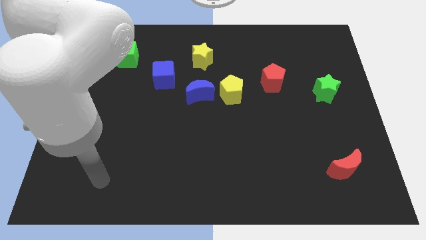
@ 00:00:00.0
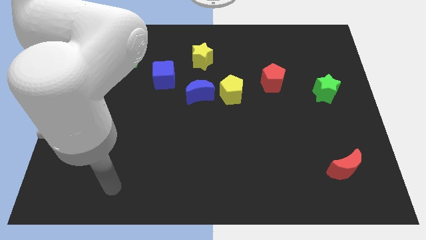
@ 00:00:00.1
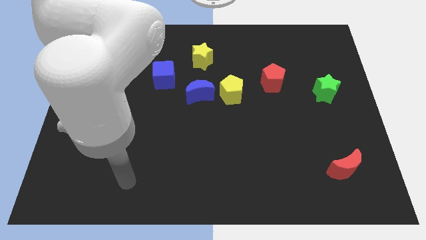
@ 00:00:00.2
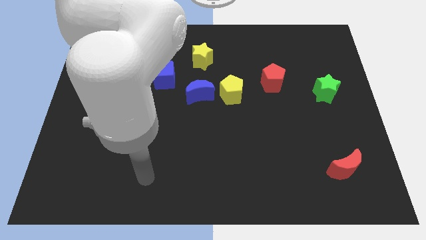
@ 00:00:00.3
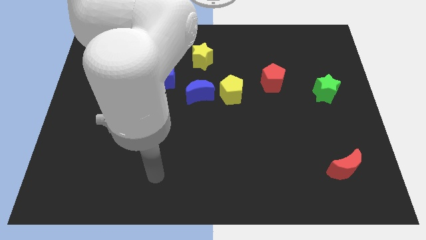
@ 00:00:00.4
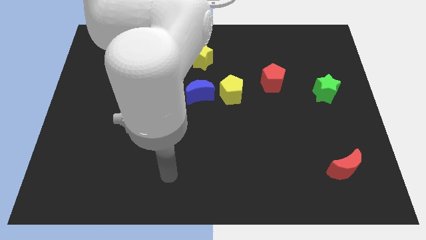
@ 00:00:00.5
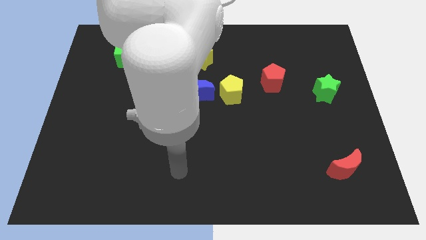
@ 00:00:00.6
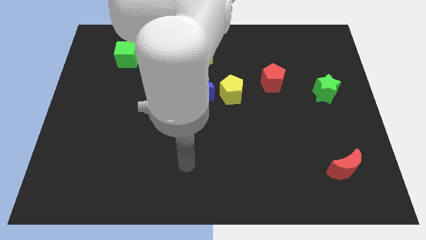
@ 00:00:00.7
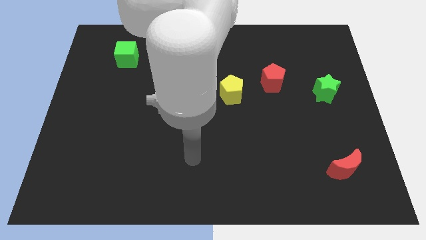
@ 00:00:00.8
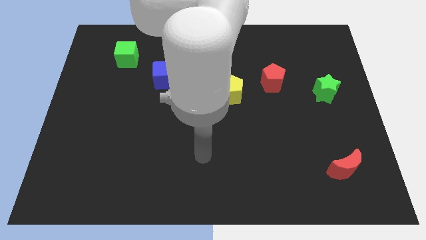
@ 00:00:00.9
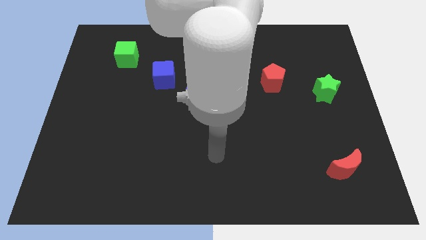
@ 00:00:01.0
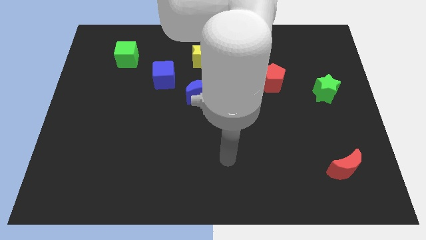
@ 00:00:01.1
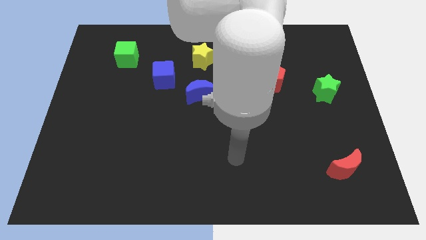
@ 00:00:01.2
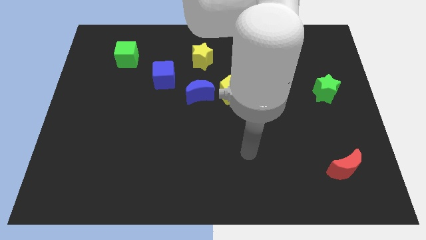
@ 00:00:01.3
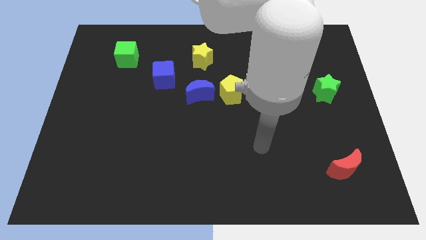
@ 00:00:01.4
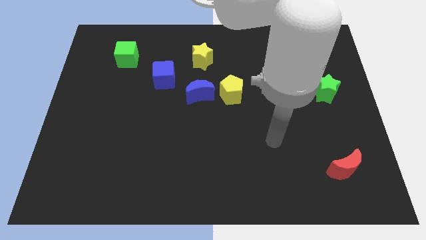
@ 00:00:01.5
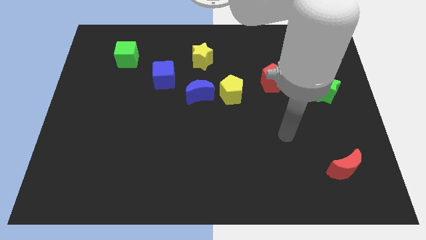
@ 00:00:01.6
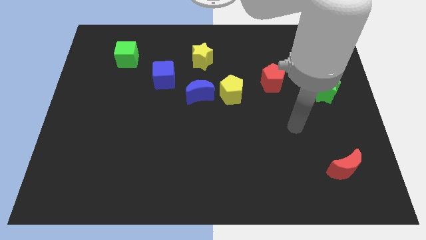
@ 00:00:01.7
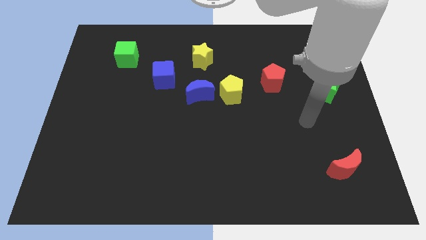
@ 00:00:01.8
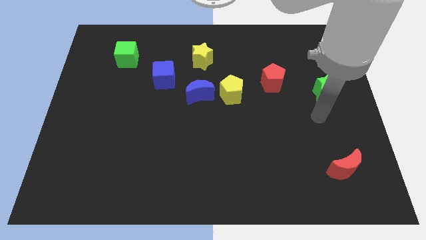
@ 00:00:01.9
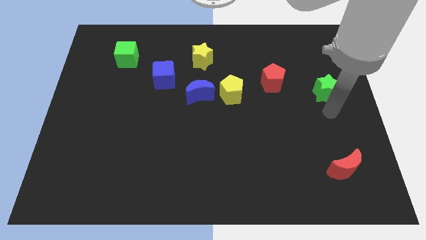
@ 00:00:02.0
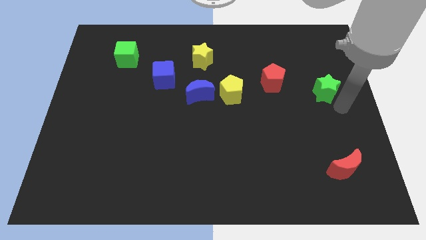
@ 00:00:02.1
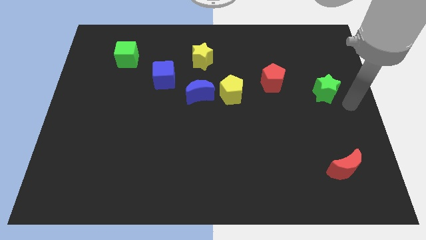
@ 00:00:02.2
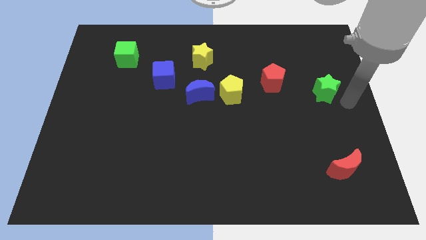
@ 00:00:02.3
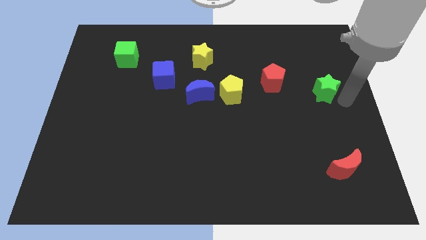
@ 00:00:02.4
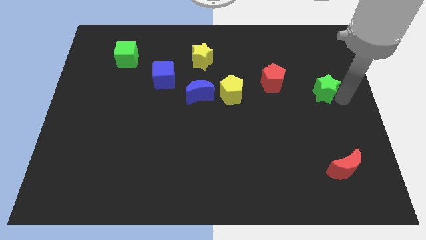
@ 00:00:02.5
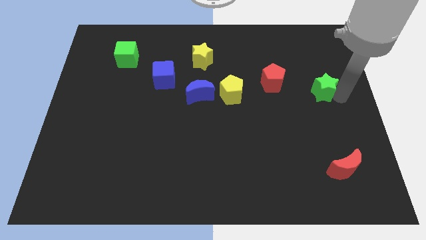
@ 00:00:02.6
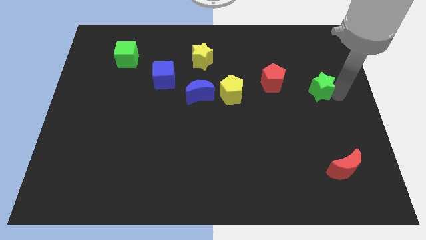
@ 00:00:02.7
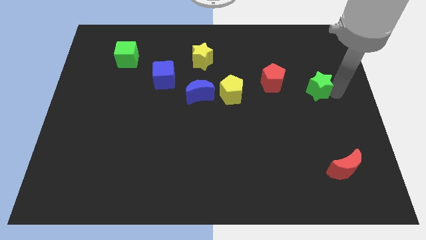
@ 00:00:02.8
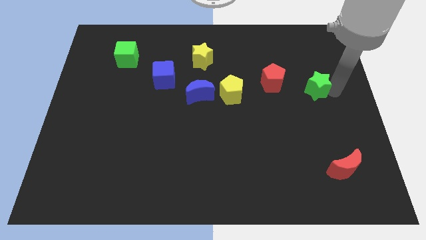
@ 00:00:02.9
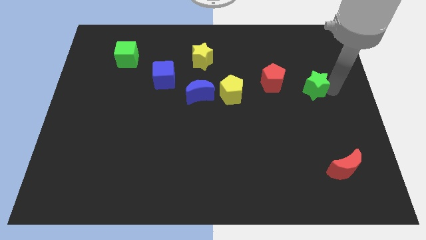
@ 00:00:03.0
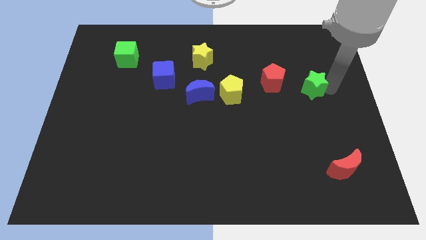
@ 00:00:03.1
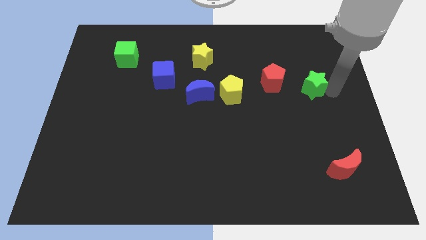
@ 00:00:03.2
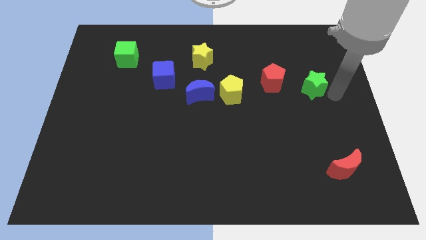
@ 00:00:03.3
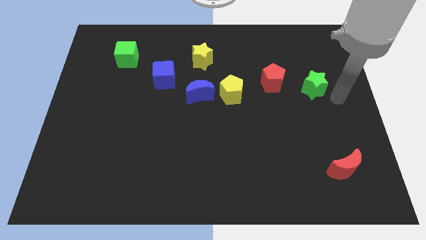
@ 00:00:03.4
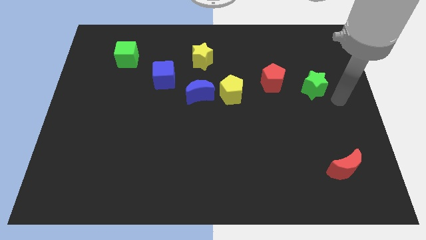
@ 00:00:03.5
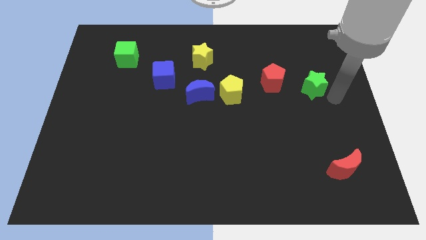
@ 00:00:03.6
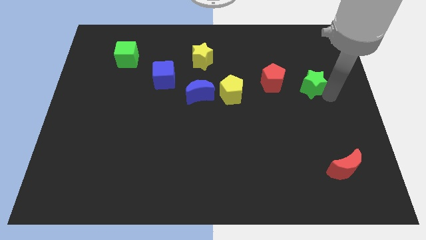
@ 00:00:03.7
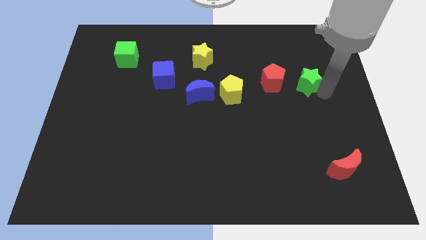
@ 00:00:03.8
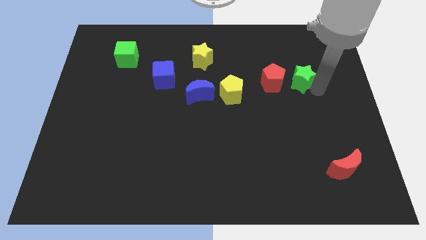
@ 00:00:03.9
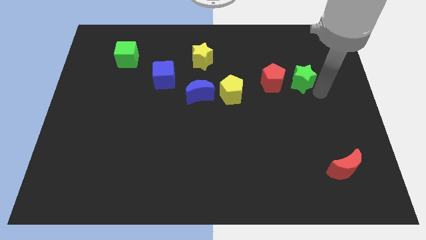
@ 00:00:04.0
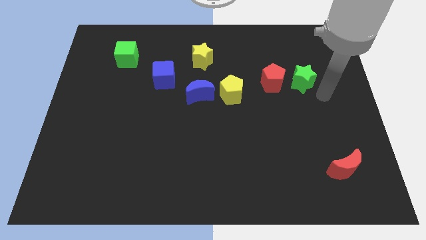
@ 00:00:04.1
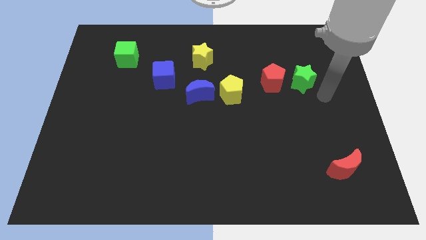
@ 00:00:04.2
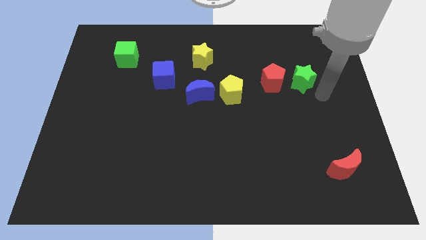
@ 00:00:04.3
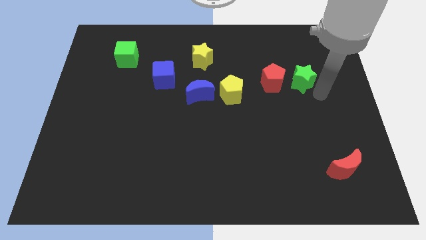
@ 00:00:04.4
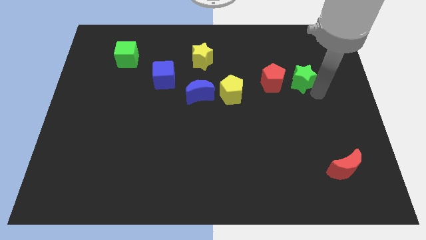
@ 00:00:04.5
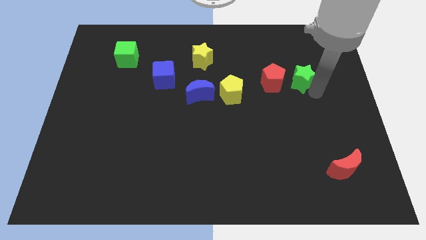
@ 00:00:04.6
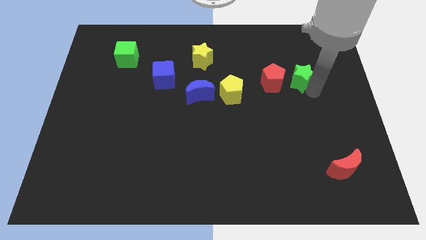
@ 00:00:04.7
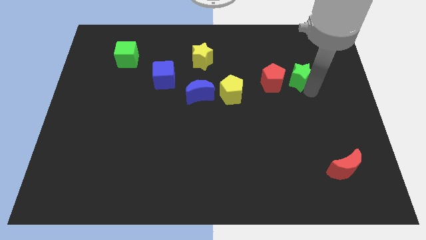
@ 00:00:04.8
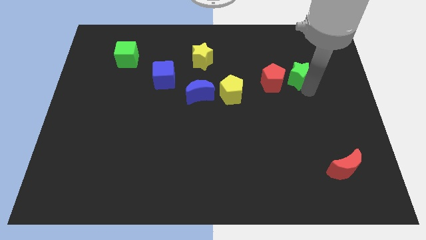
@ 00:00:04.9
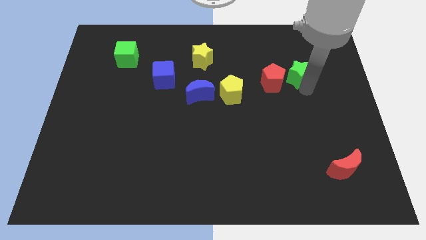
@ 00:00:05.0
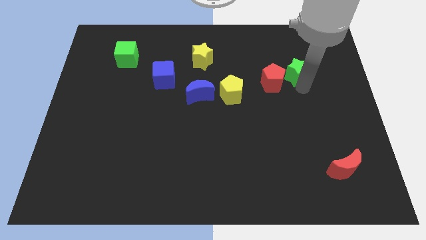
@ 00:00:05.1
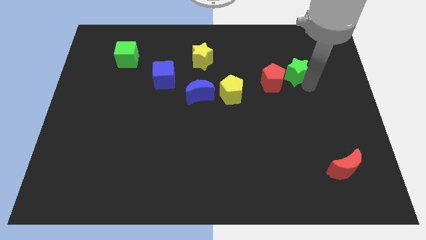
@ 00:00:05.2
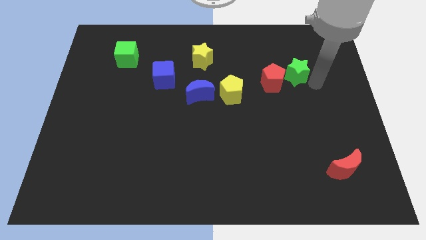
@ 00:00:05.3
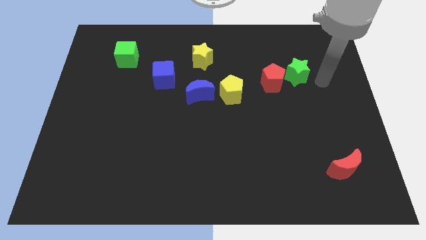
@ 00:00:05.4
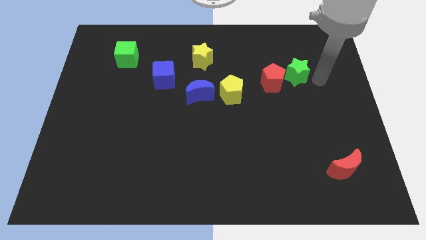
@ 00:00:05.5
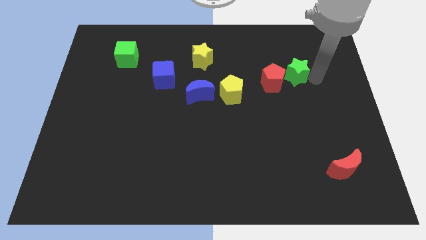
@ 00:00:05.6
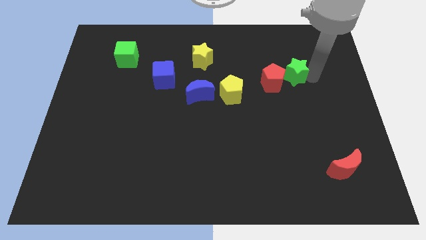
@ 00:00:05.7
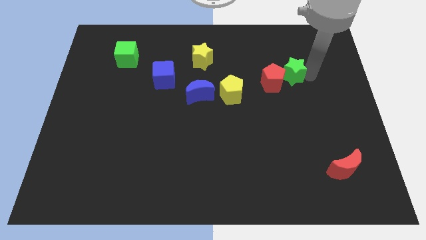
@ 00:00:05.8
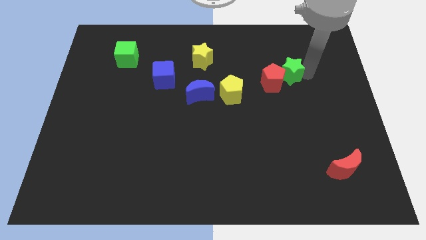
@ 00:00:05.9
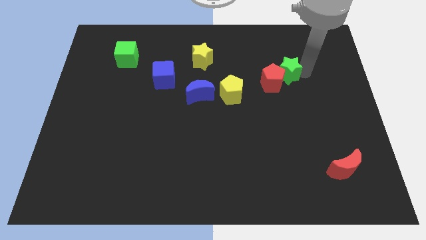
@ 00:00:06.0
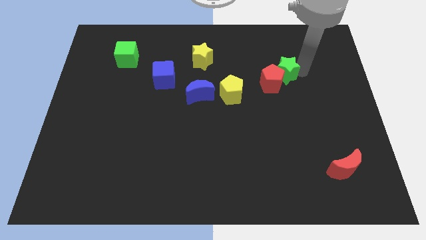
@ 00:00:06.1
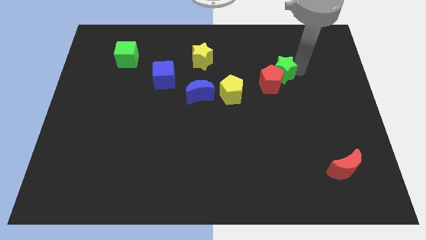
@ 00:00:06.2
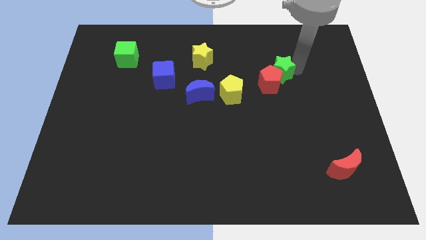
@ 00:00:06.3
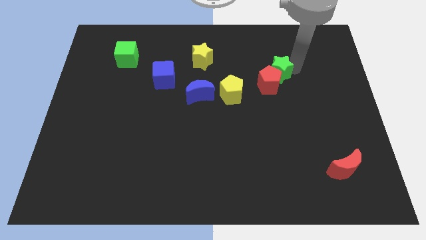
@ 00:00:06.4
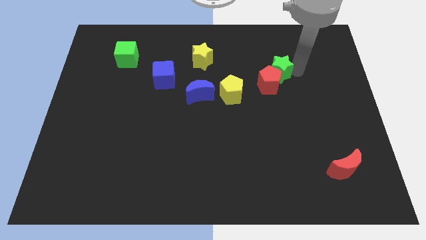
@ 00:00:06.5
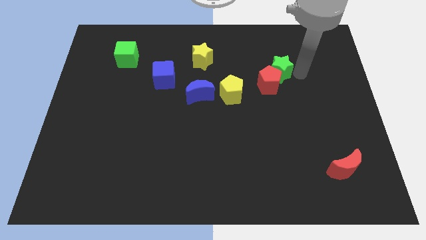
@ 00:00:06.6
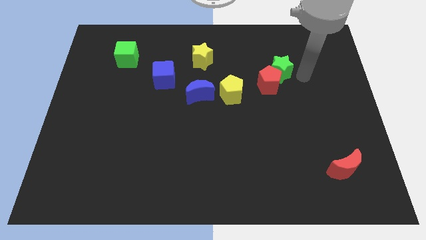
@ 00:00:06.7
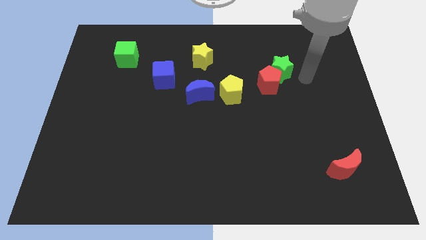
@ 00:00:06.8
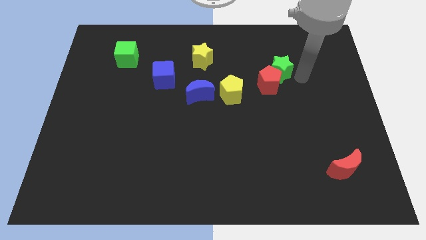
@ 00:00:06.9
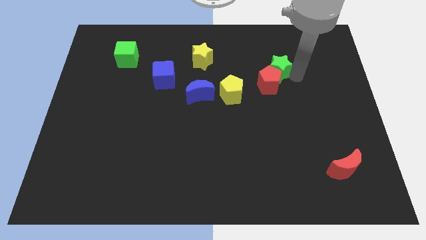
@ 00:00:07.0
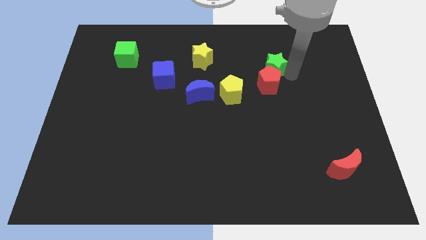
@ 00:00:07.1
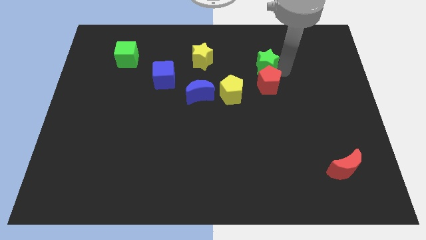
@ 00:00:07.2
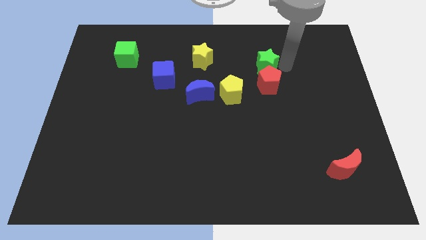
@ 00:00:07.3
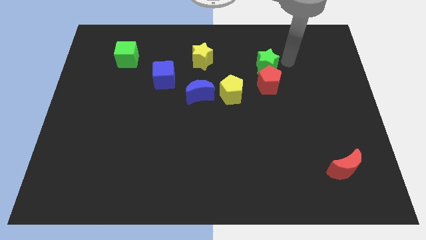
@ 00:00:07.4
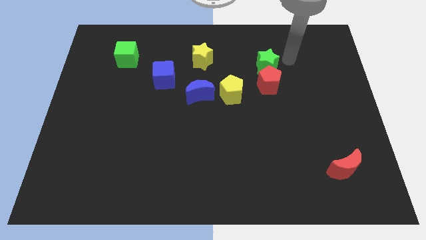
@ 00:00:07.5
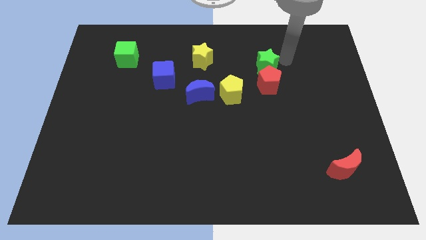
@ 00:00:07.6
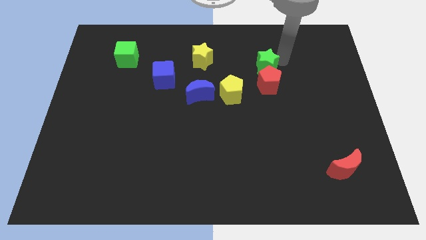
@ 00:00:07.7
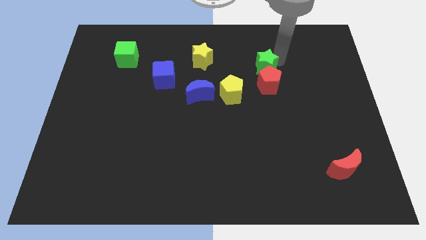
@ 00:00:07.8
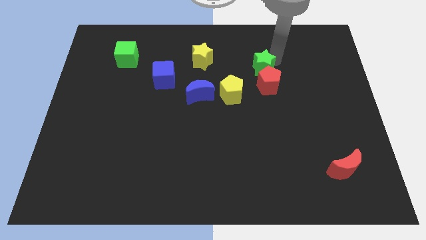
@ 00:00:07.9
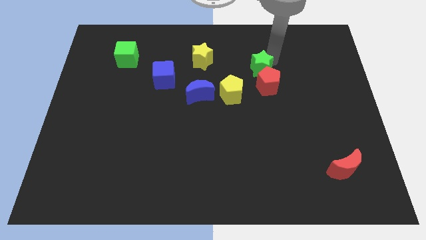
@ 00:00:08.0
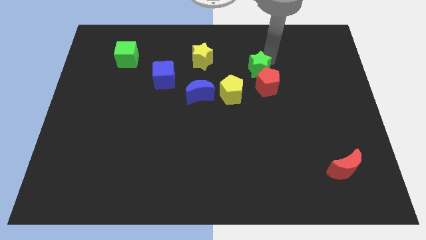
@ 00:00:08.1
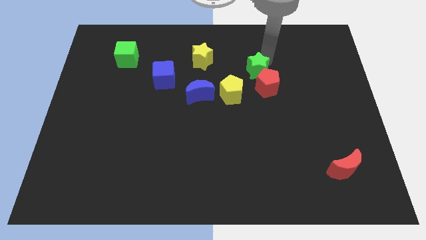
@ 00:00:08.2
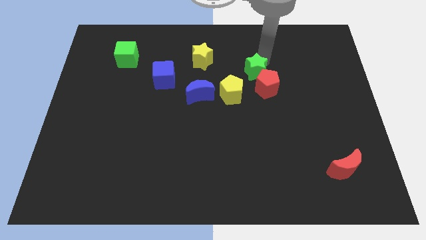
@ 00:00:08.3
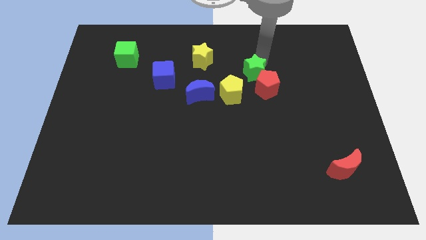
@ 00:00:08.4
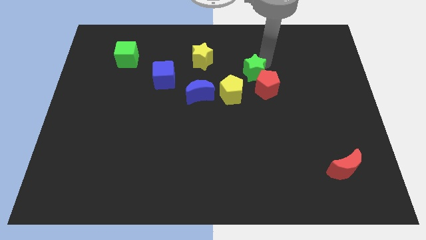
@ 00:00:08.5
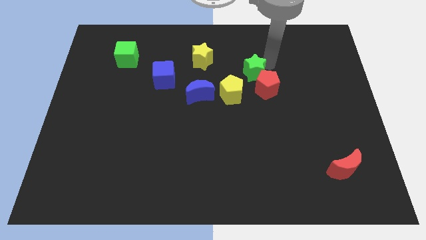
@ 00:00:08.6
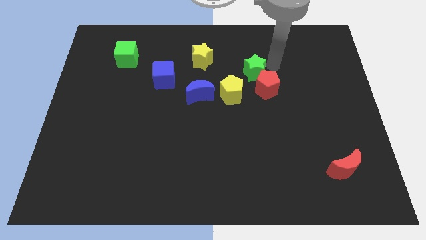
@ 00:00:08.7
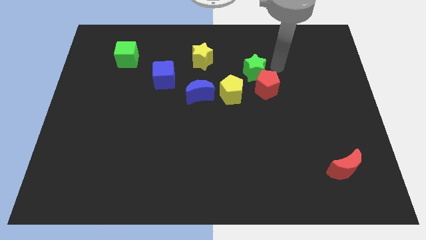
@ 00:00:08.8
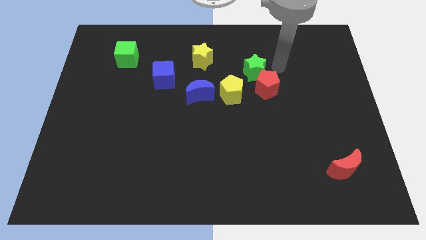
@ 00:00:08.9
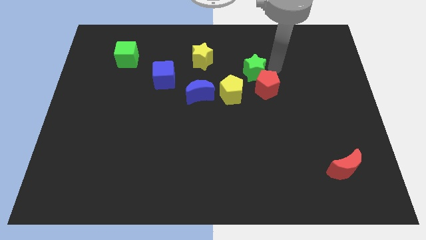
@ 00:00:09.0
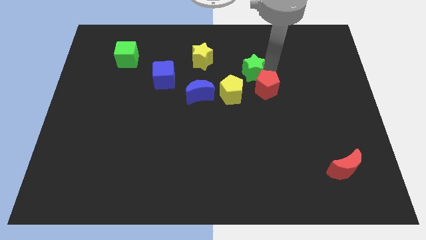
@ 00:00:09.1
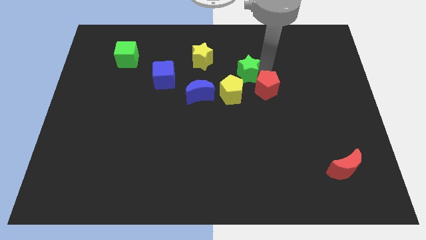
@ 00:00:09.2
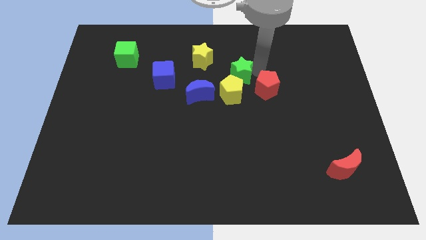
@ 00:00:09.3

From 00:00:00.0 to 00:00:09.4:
push the green star diagonally down and to the right of the yellow star
